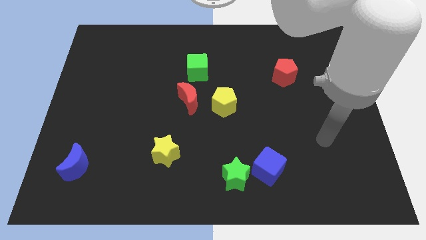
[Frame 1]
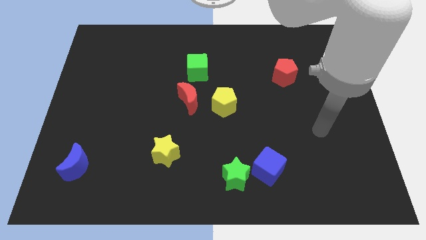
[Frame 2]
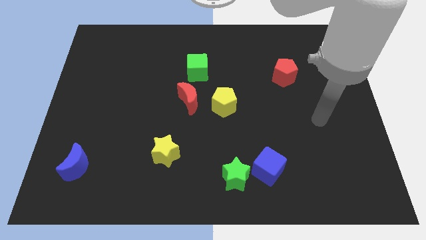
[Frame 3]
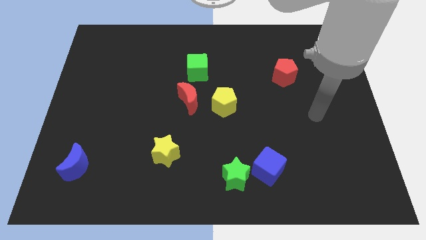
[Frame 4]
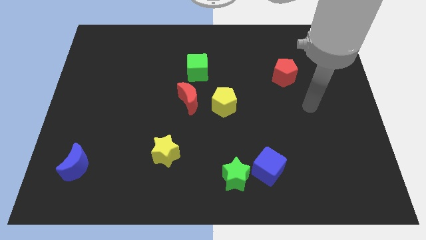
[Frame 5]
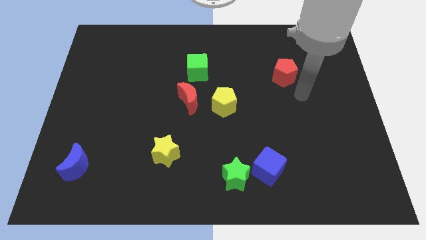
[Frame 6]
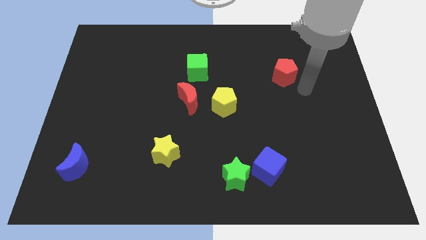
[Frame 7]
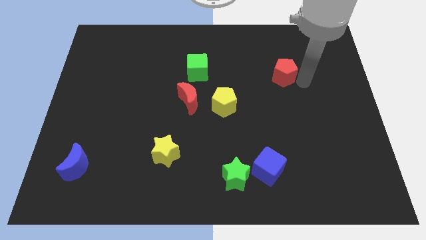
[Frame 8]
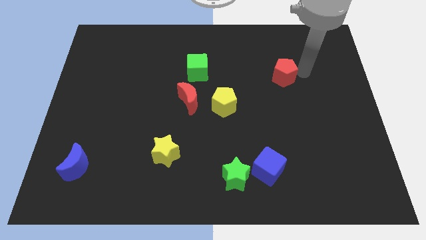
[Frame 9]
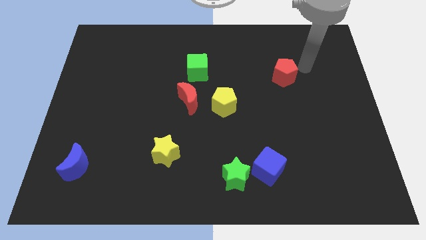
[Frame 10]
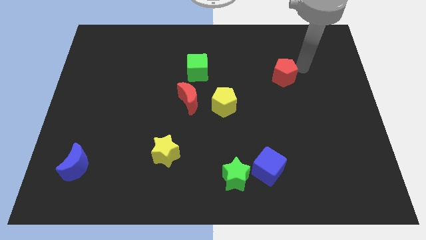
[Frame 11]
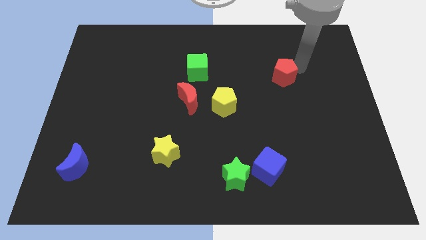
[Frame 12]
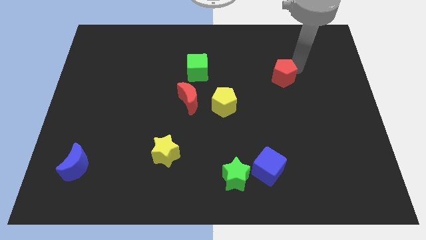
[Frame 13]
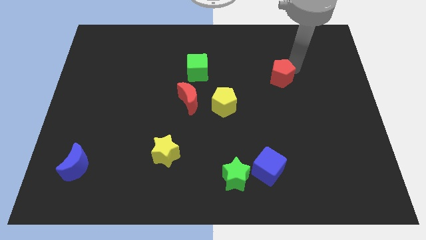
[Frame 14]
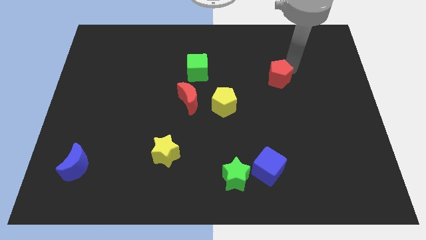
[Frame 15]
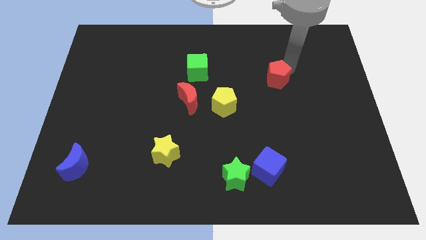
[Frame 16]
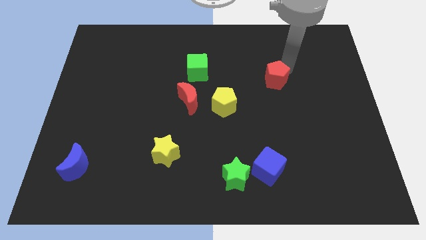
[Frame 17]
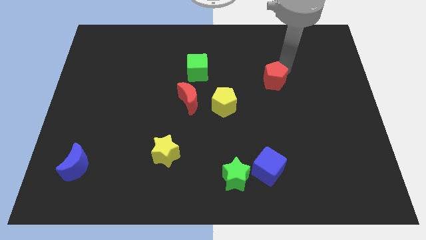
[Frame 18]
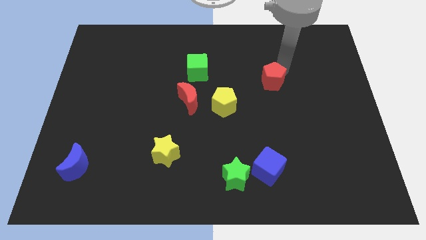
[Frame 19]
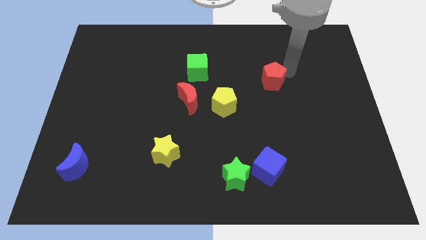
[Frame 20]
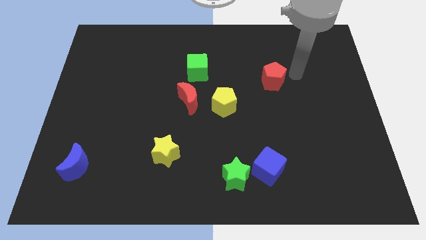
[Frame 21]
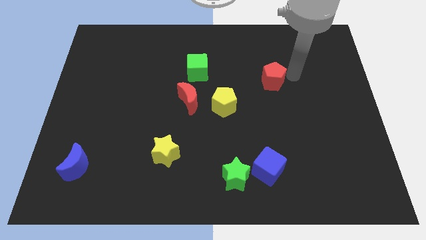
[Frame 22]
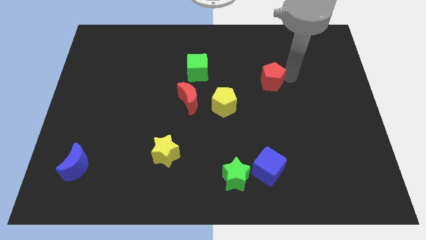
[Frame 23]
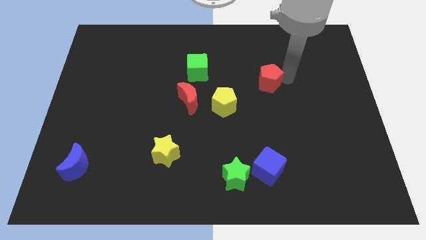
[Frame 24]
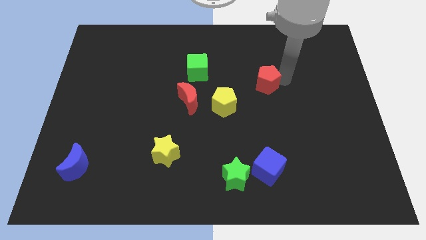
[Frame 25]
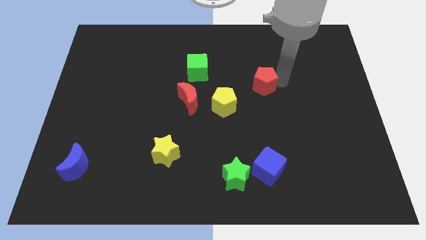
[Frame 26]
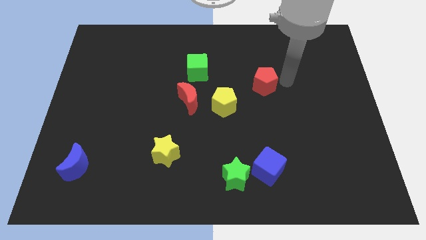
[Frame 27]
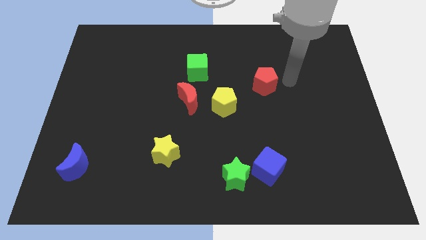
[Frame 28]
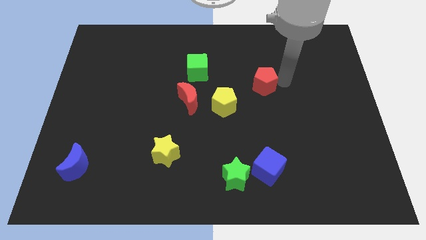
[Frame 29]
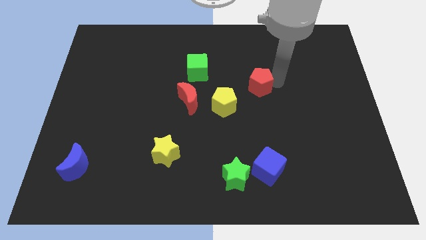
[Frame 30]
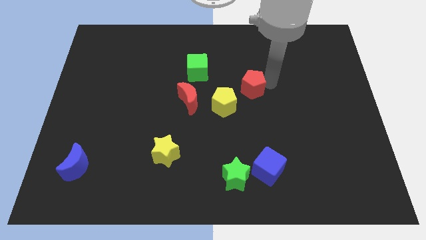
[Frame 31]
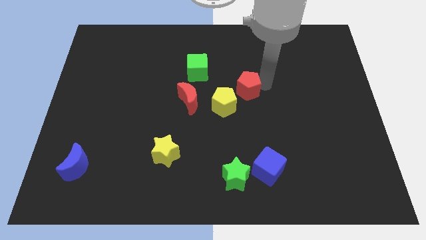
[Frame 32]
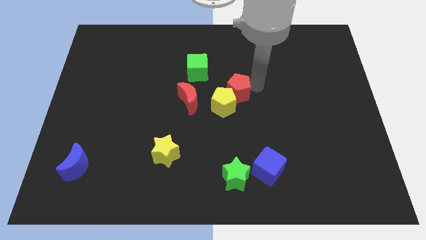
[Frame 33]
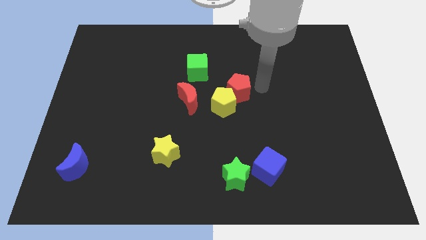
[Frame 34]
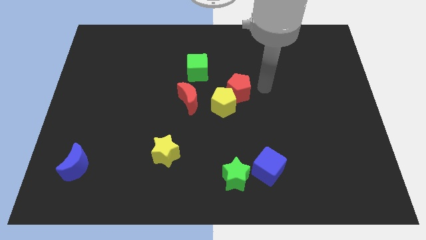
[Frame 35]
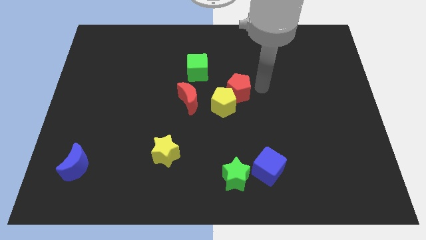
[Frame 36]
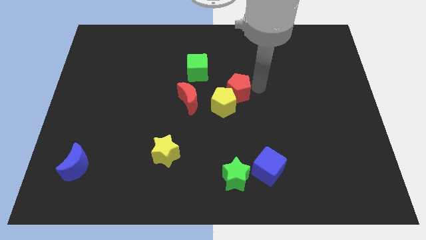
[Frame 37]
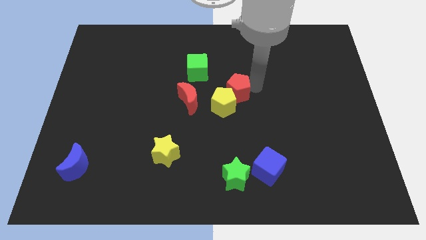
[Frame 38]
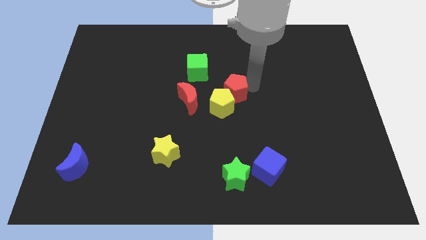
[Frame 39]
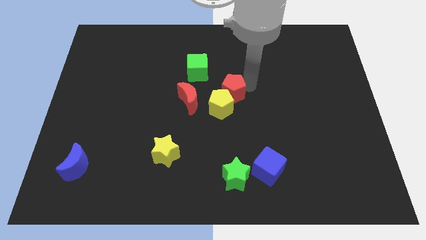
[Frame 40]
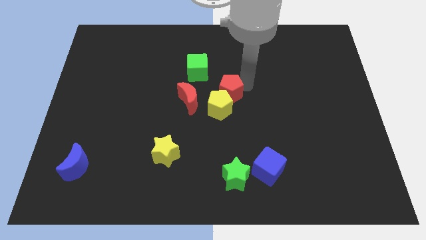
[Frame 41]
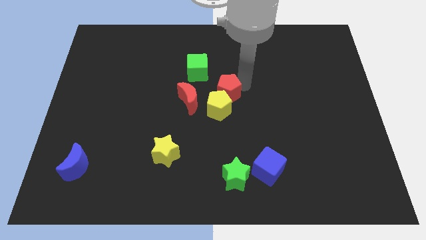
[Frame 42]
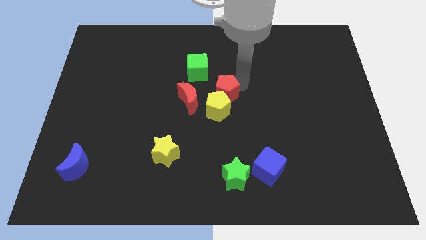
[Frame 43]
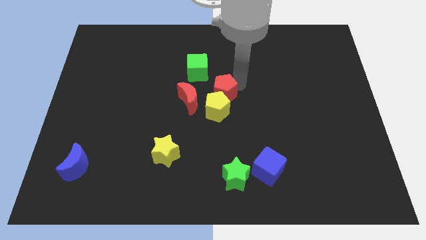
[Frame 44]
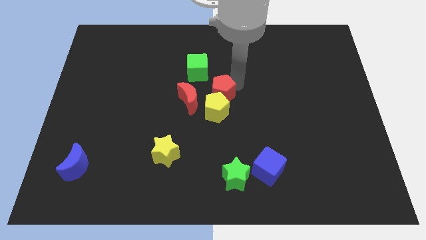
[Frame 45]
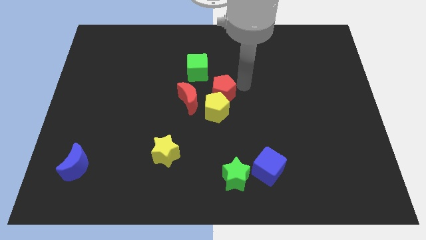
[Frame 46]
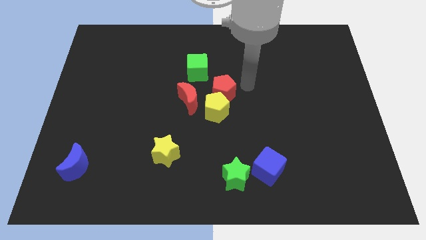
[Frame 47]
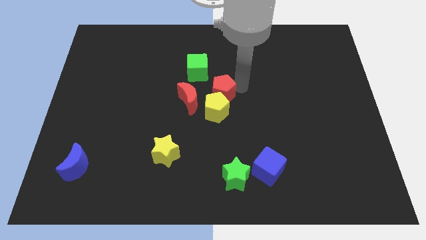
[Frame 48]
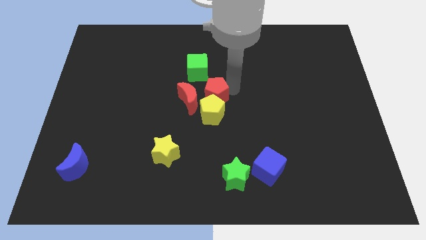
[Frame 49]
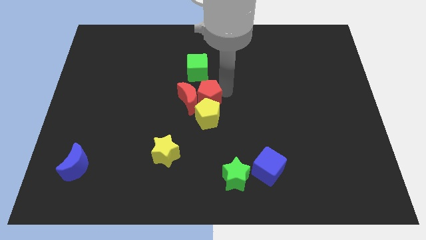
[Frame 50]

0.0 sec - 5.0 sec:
slide the red pentagon to the red moon

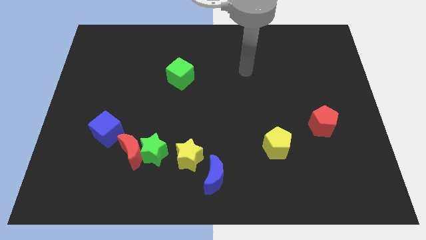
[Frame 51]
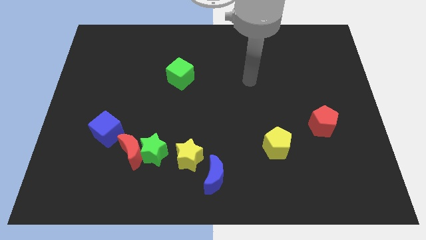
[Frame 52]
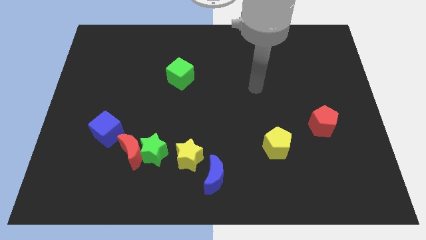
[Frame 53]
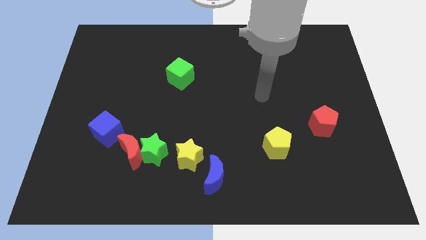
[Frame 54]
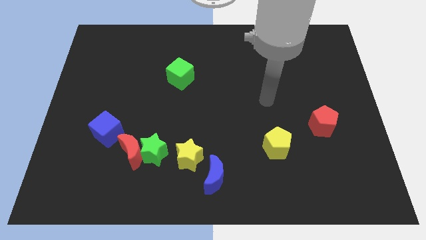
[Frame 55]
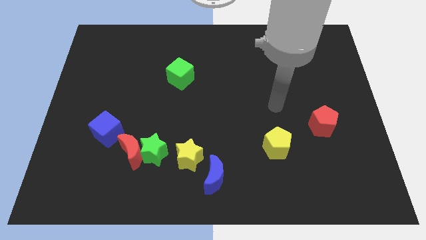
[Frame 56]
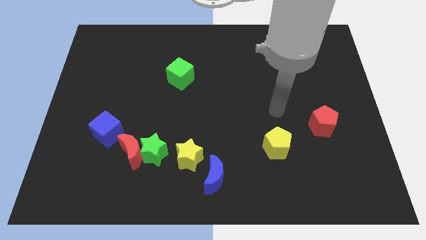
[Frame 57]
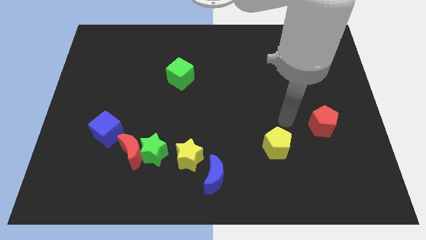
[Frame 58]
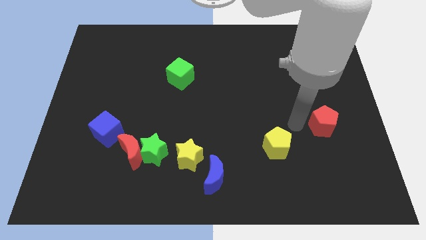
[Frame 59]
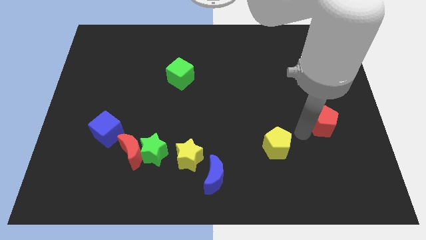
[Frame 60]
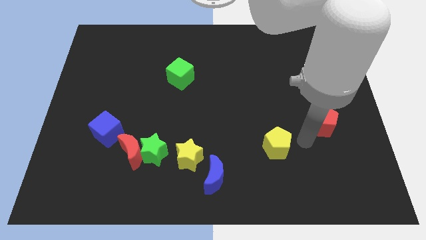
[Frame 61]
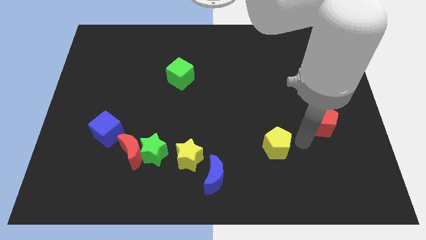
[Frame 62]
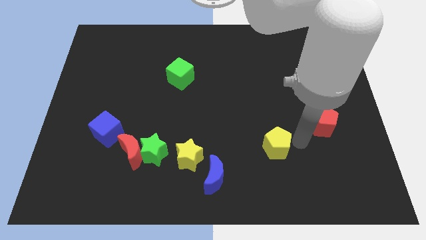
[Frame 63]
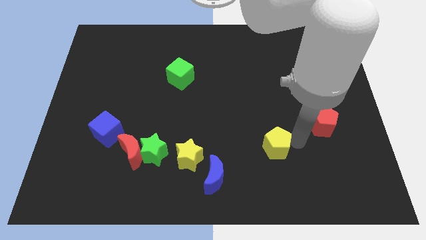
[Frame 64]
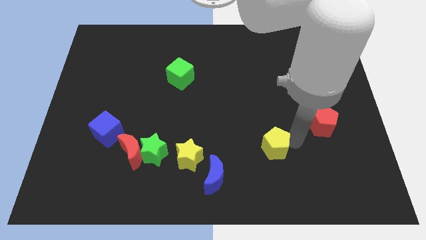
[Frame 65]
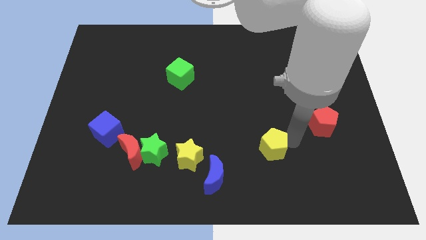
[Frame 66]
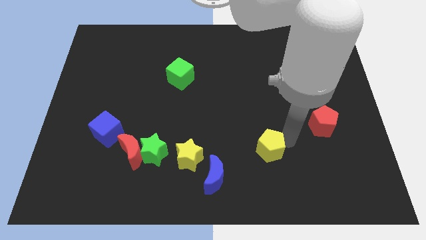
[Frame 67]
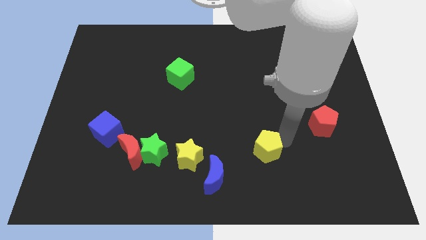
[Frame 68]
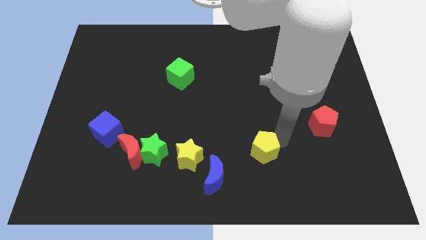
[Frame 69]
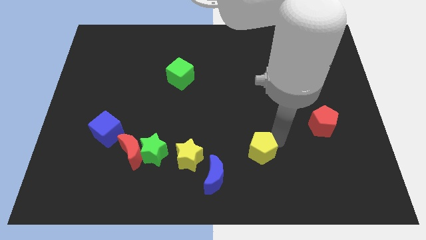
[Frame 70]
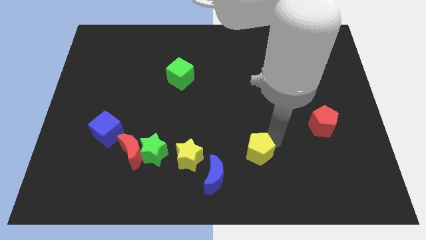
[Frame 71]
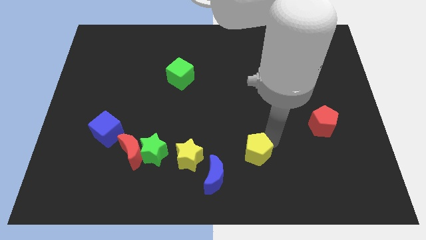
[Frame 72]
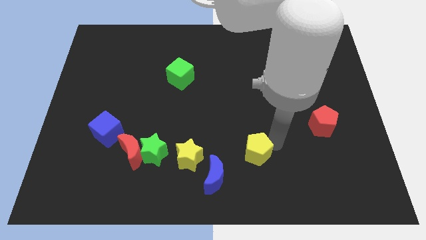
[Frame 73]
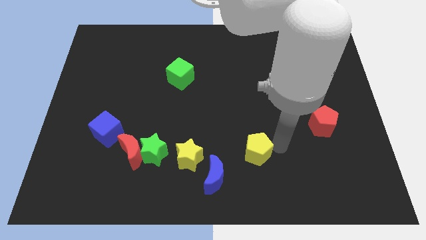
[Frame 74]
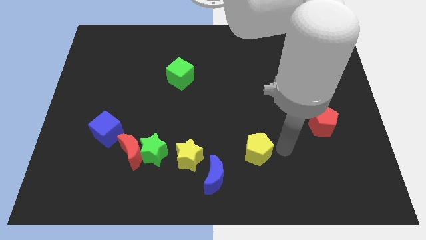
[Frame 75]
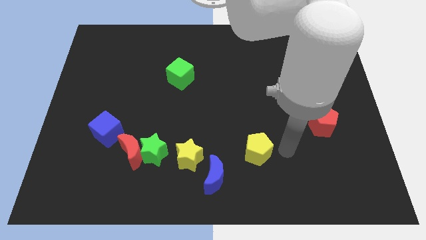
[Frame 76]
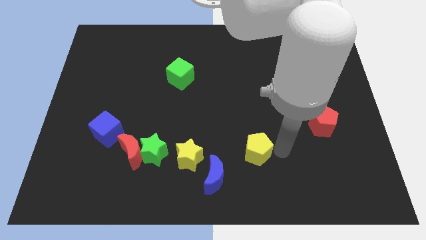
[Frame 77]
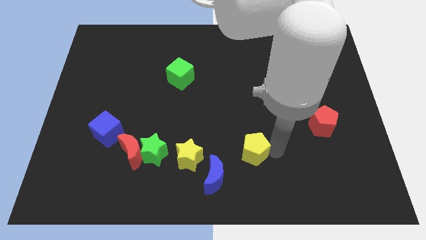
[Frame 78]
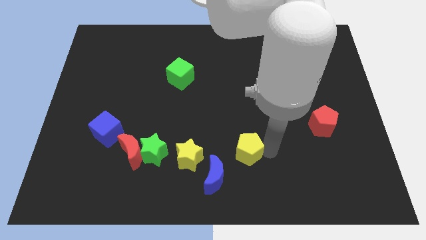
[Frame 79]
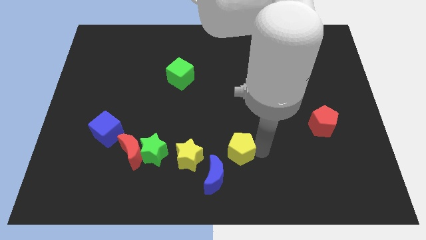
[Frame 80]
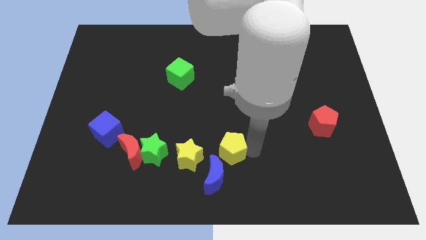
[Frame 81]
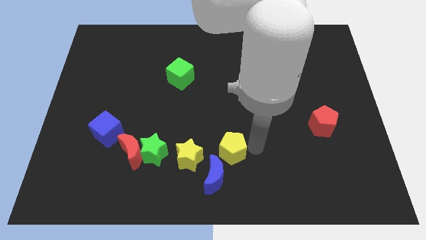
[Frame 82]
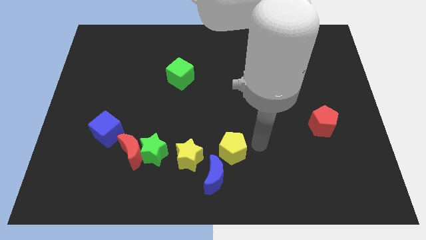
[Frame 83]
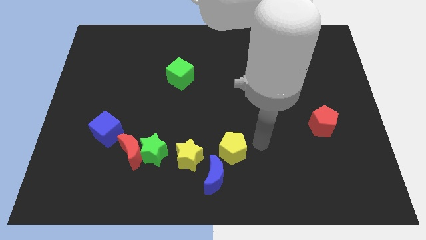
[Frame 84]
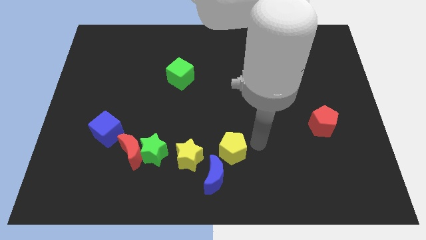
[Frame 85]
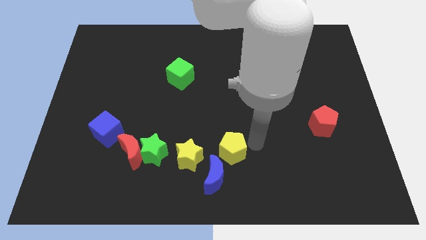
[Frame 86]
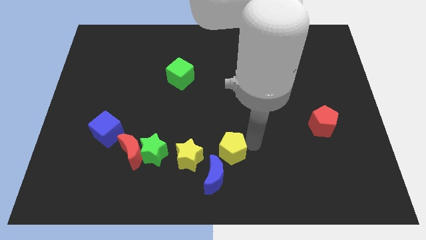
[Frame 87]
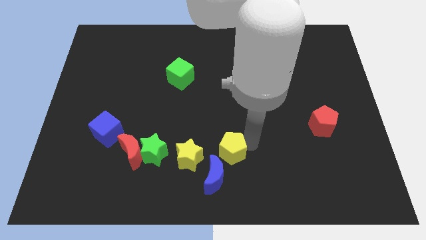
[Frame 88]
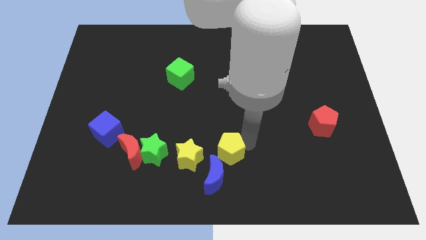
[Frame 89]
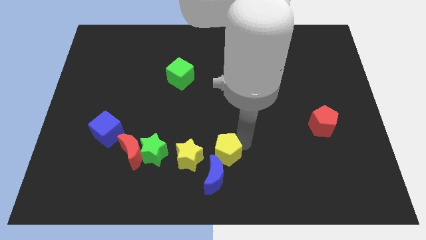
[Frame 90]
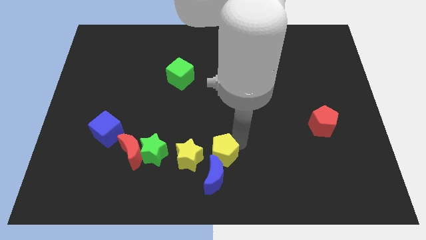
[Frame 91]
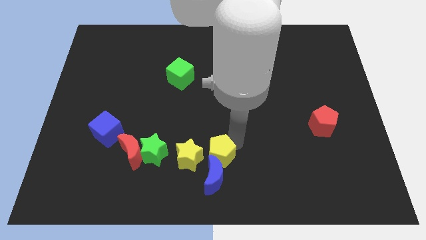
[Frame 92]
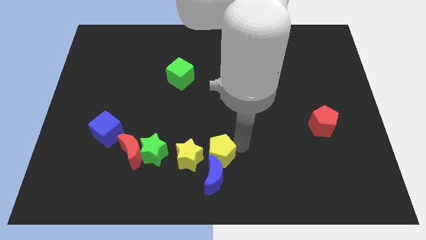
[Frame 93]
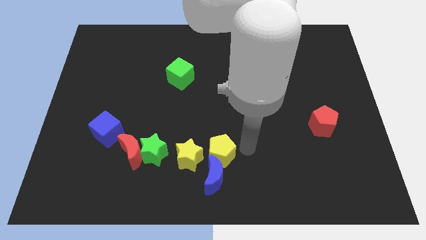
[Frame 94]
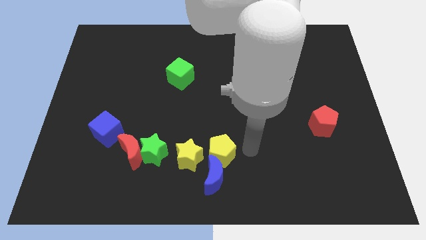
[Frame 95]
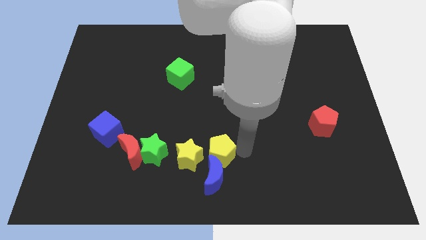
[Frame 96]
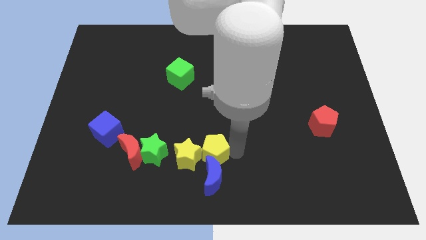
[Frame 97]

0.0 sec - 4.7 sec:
move the yellow pentagon towards the yellow star
